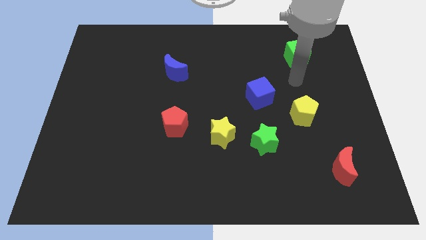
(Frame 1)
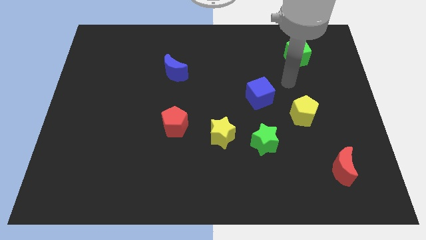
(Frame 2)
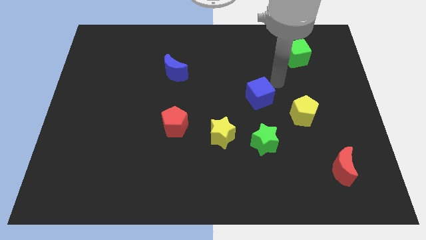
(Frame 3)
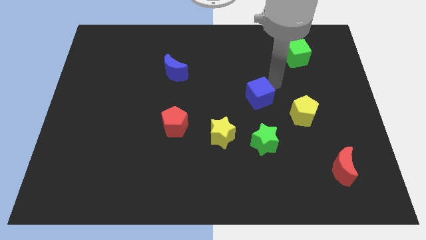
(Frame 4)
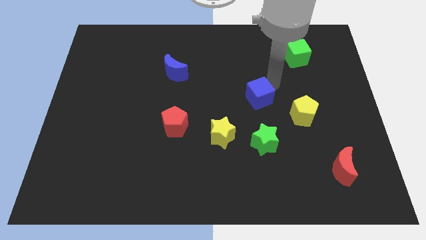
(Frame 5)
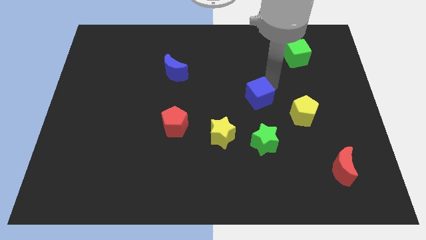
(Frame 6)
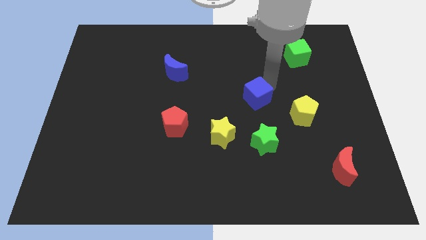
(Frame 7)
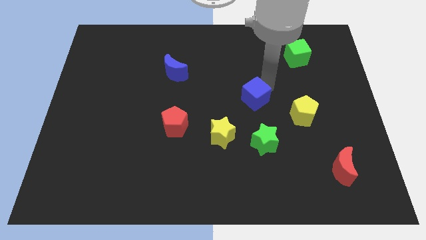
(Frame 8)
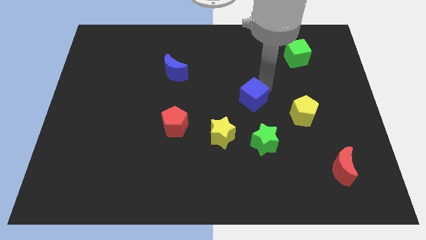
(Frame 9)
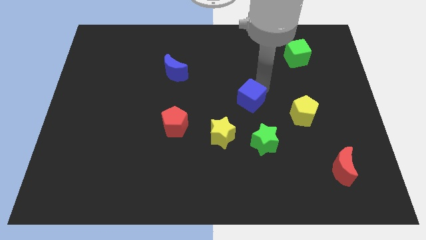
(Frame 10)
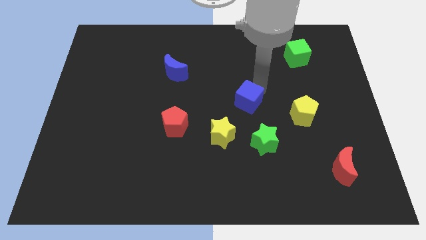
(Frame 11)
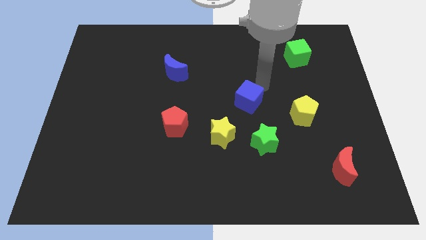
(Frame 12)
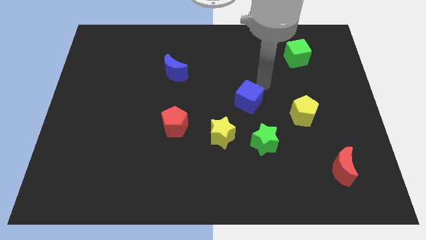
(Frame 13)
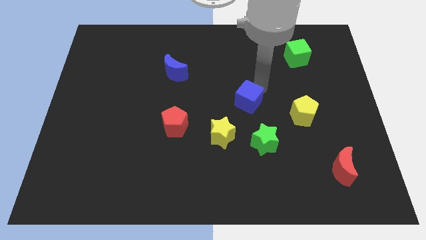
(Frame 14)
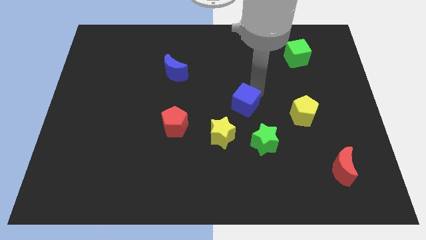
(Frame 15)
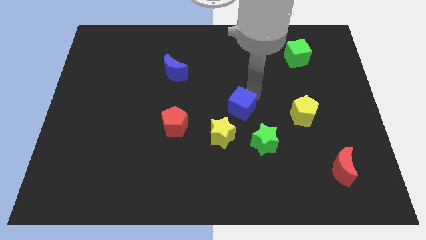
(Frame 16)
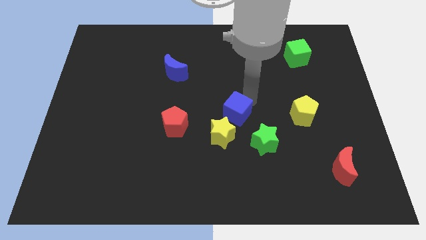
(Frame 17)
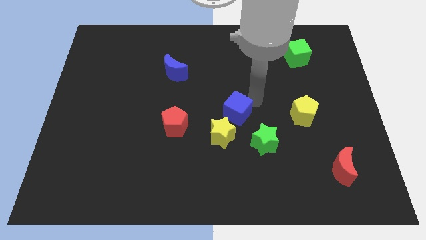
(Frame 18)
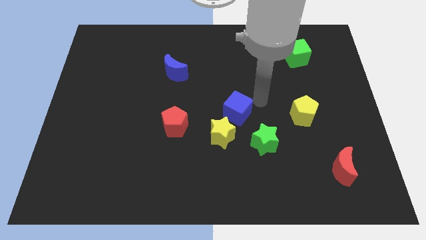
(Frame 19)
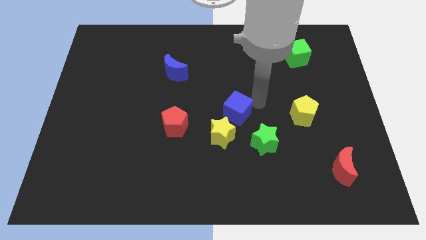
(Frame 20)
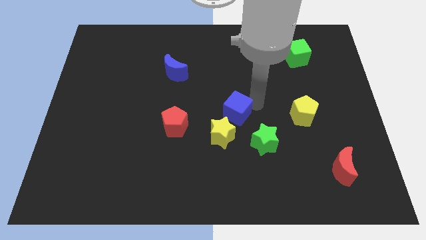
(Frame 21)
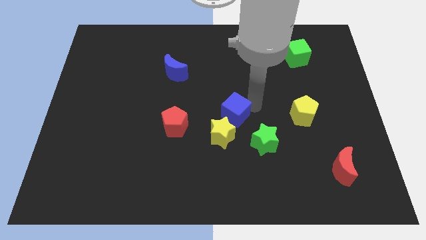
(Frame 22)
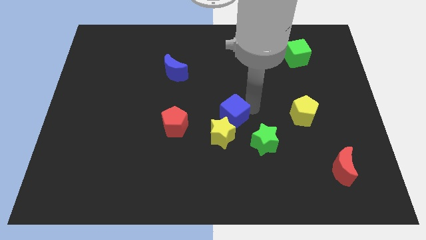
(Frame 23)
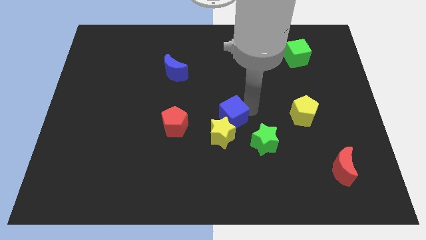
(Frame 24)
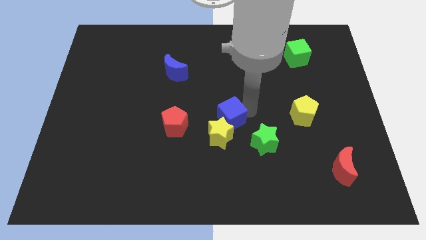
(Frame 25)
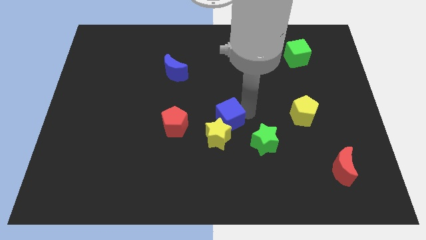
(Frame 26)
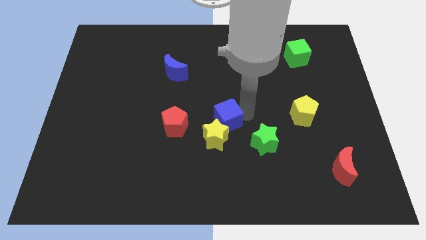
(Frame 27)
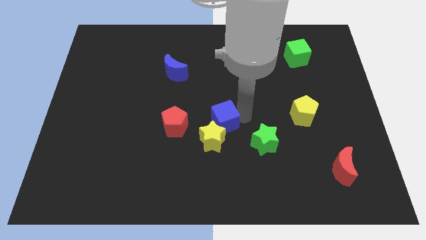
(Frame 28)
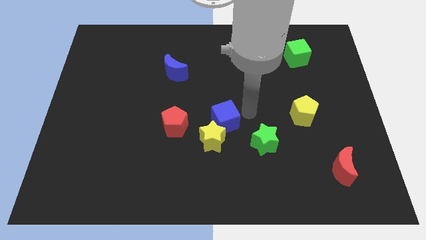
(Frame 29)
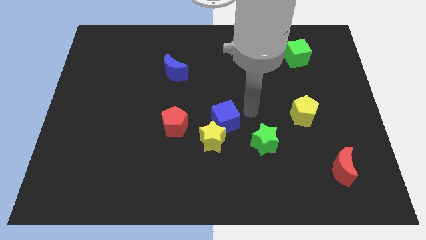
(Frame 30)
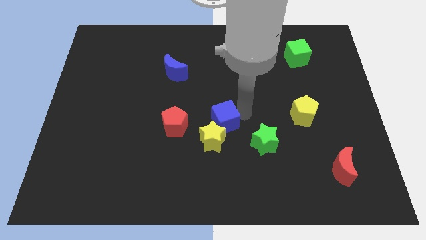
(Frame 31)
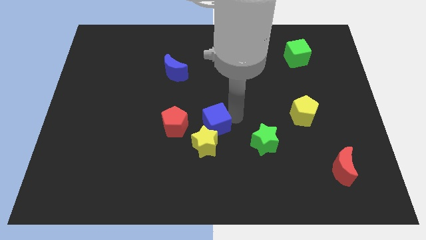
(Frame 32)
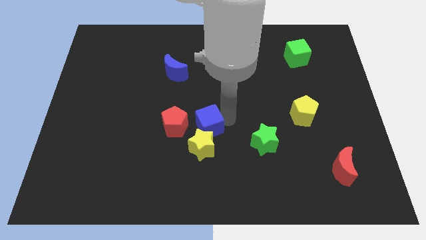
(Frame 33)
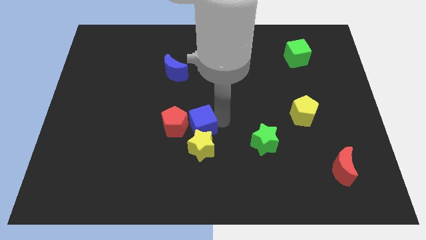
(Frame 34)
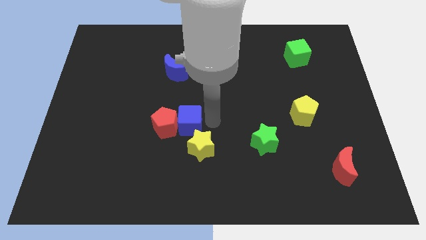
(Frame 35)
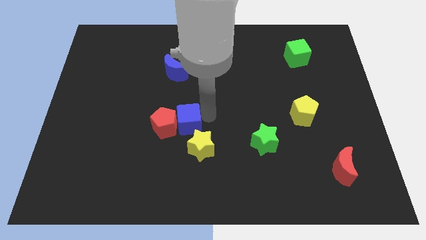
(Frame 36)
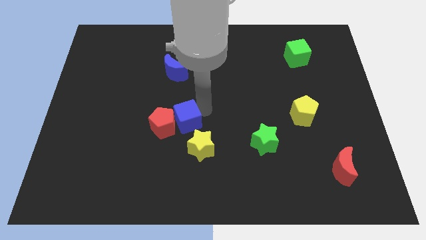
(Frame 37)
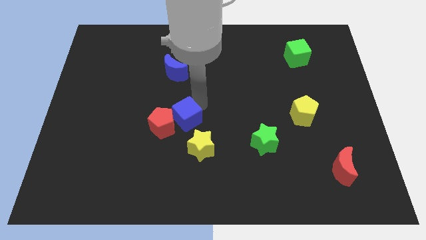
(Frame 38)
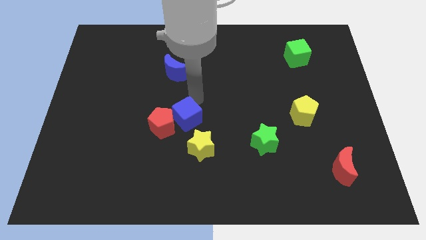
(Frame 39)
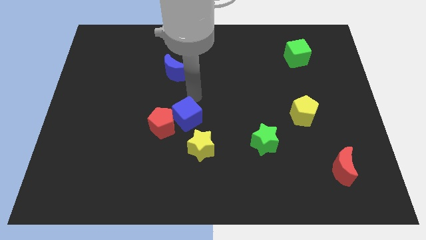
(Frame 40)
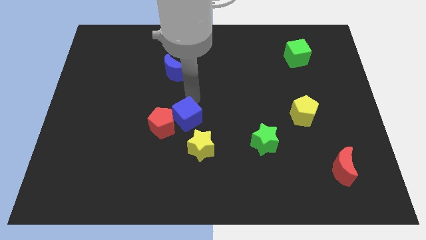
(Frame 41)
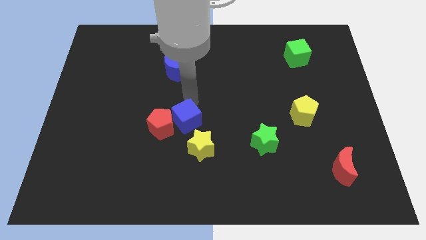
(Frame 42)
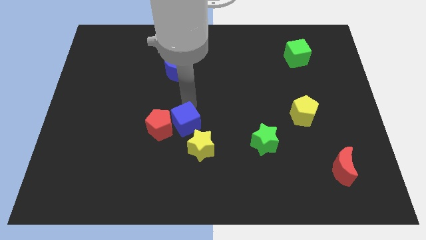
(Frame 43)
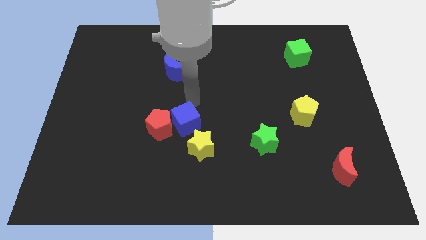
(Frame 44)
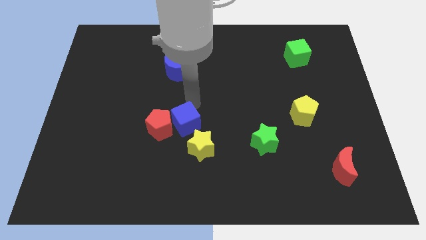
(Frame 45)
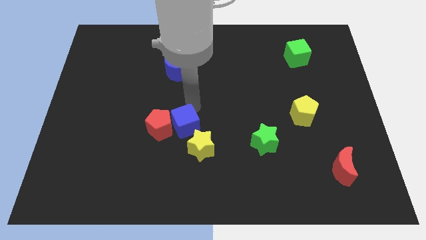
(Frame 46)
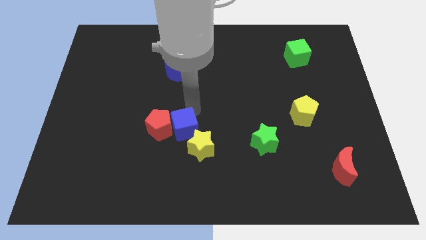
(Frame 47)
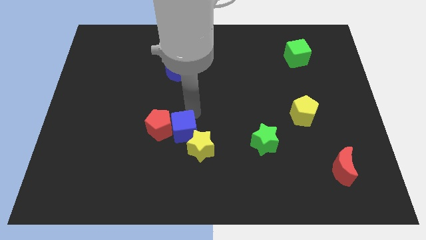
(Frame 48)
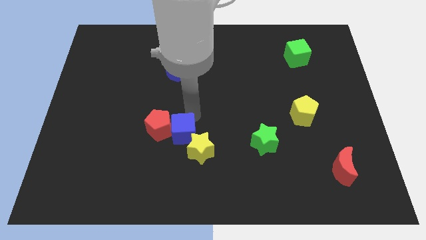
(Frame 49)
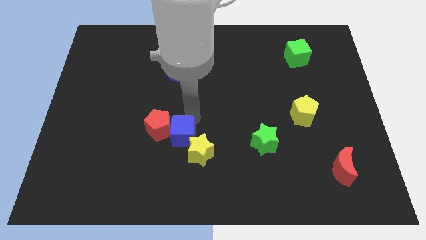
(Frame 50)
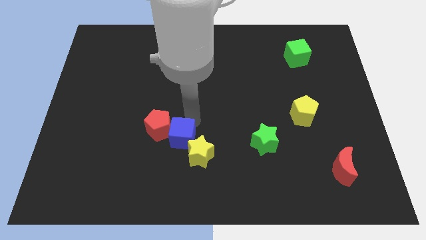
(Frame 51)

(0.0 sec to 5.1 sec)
slide the blue cube down and then to the left

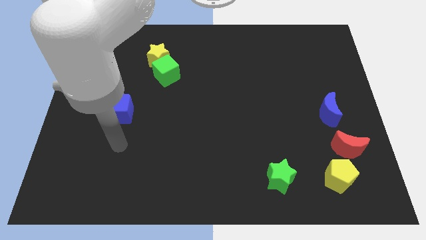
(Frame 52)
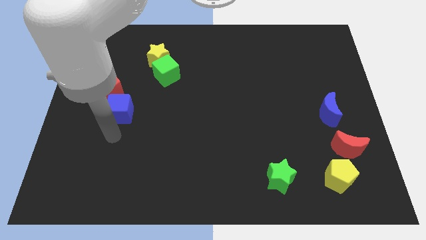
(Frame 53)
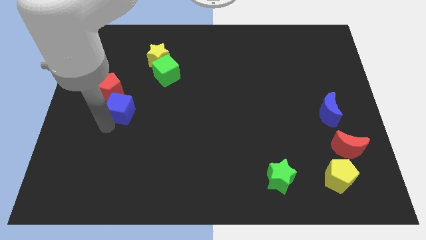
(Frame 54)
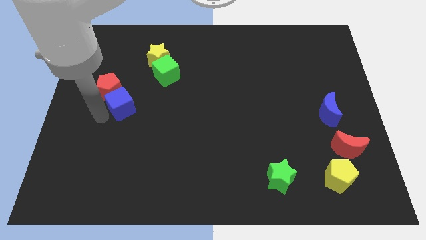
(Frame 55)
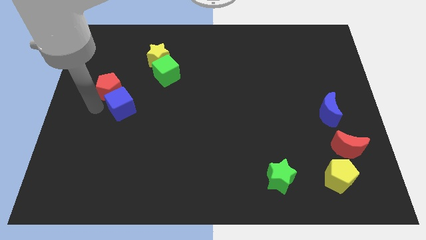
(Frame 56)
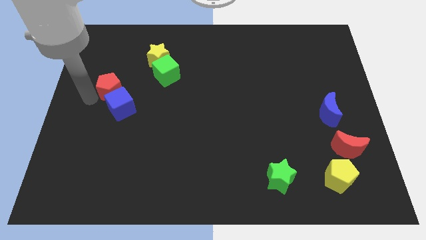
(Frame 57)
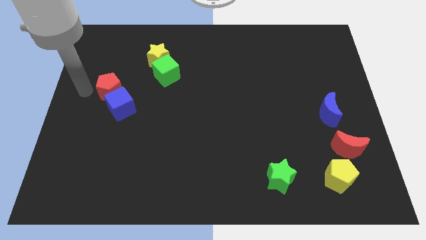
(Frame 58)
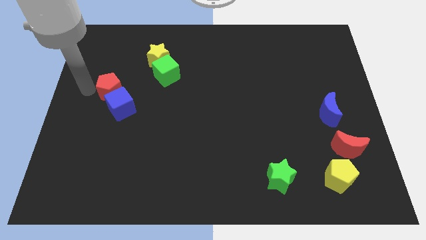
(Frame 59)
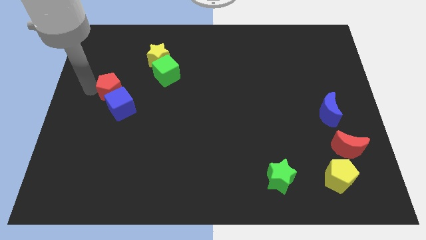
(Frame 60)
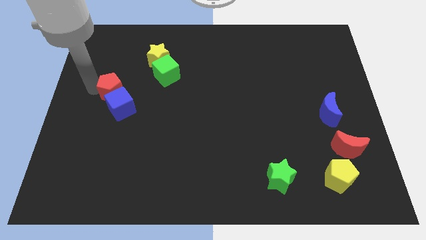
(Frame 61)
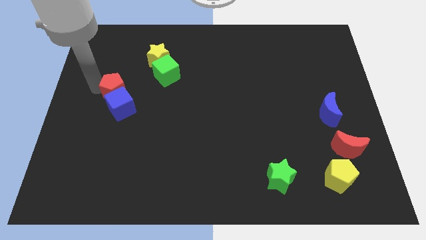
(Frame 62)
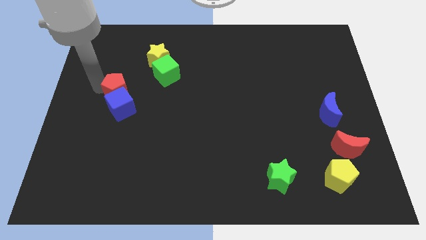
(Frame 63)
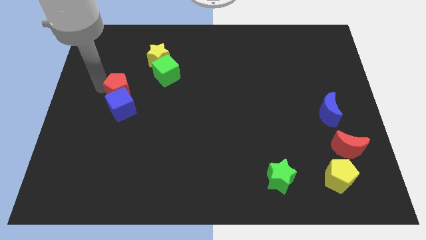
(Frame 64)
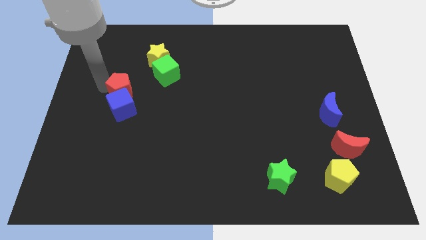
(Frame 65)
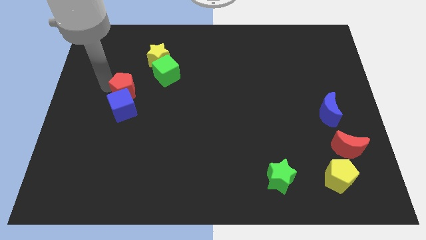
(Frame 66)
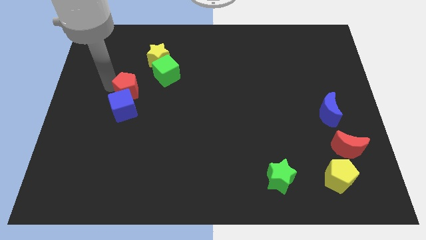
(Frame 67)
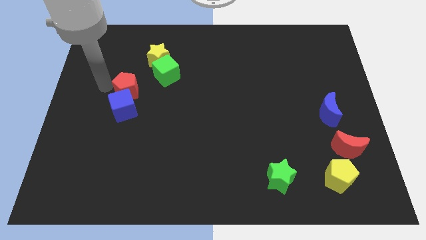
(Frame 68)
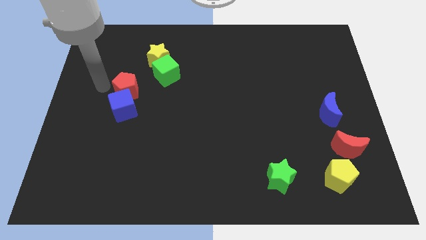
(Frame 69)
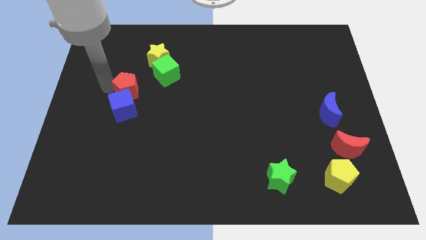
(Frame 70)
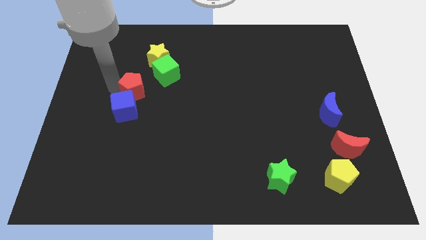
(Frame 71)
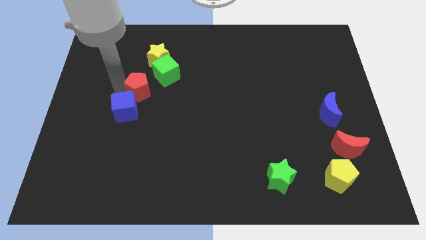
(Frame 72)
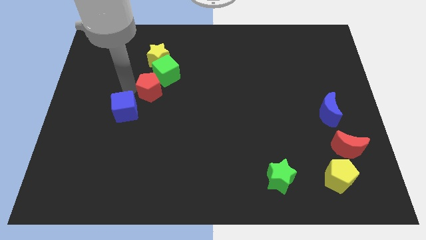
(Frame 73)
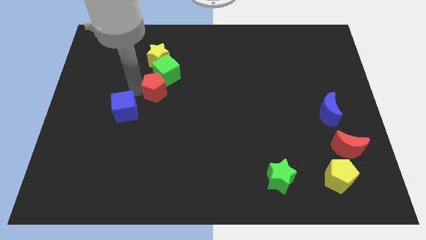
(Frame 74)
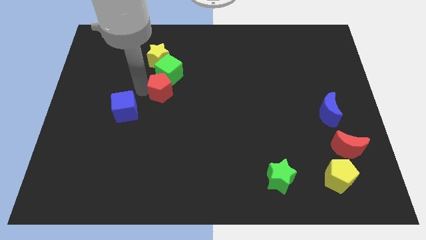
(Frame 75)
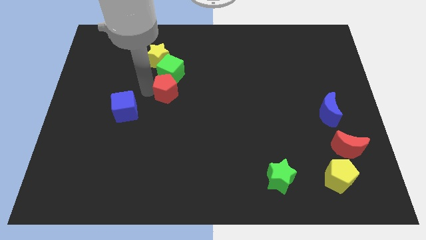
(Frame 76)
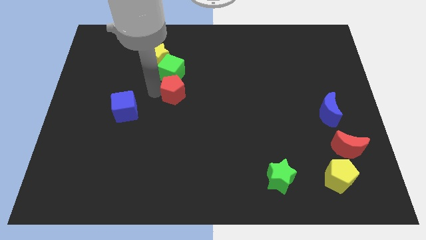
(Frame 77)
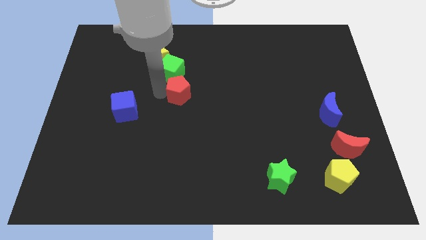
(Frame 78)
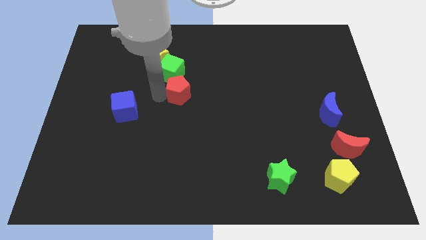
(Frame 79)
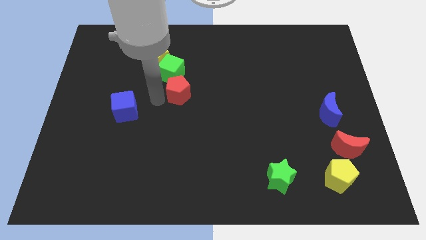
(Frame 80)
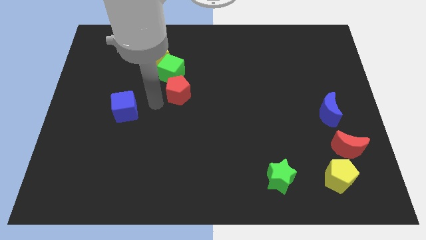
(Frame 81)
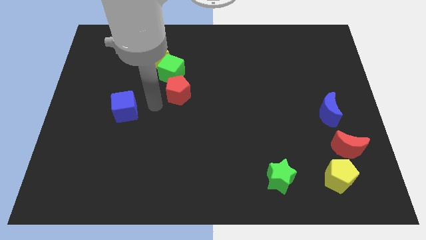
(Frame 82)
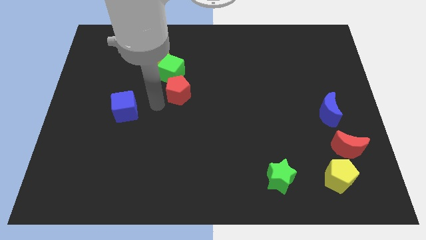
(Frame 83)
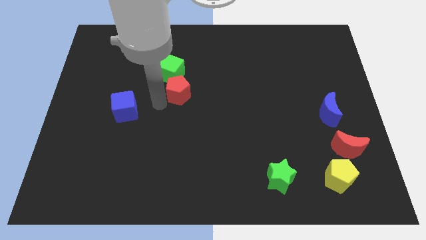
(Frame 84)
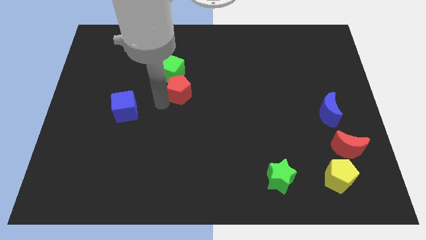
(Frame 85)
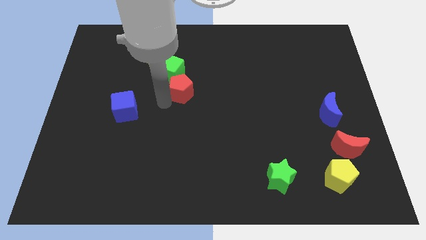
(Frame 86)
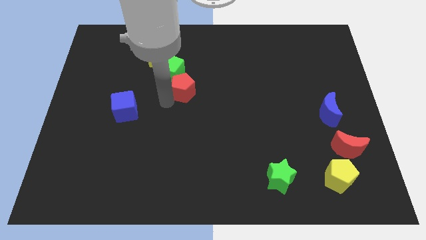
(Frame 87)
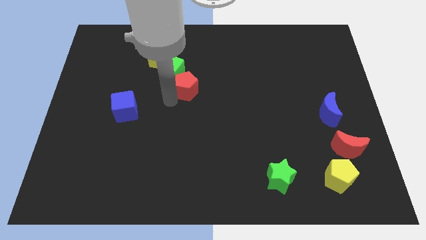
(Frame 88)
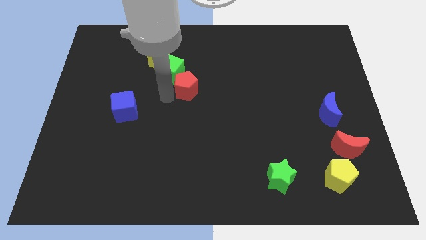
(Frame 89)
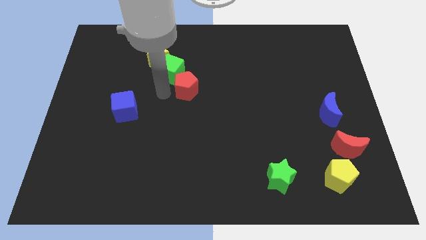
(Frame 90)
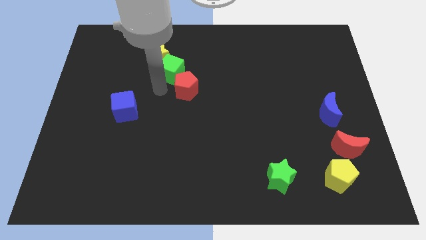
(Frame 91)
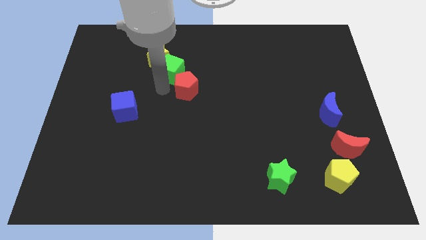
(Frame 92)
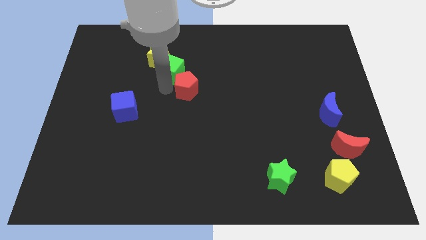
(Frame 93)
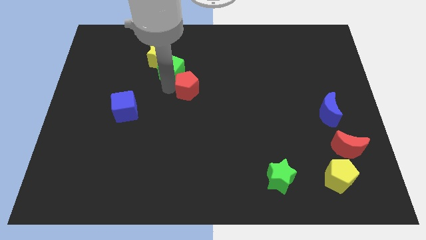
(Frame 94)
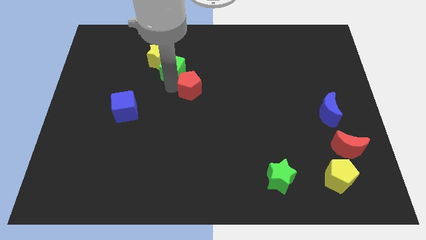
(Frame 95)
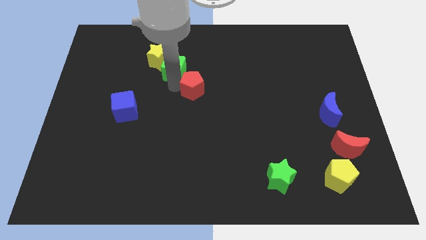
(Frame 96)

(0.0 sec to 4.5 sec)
move the red pentagon to the right
